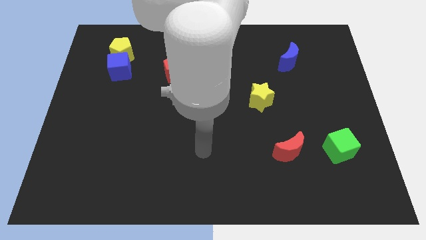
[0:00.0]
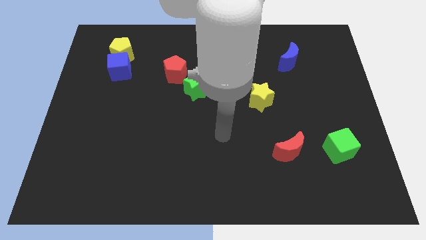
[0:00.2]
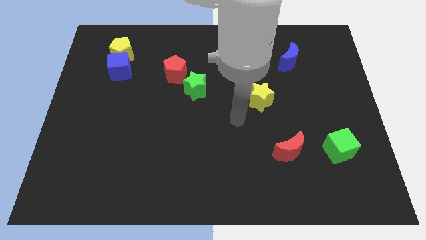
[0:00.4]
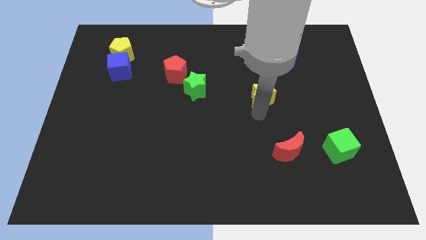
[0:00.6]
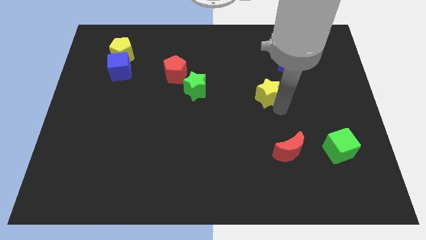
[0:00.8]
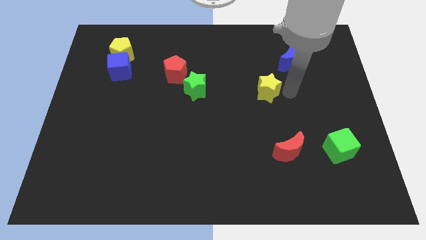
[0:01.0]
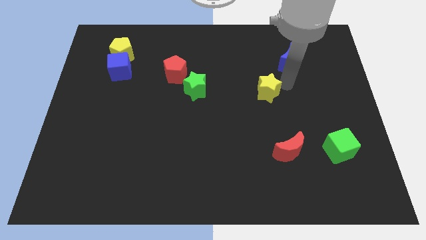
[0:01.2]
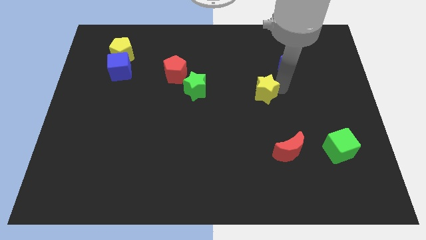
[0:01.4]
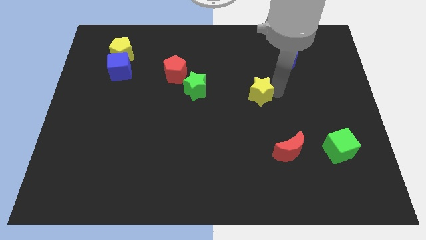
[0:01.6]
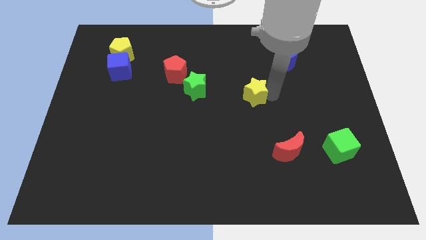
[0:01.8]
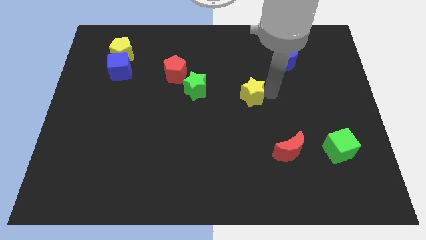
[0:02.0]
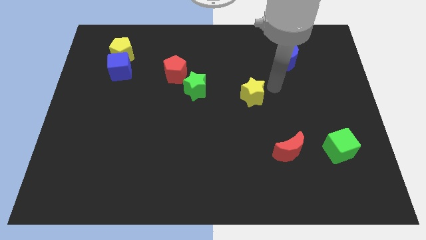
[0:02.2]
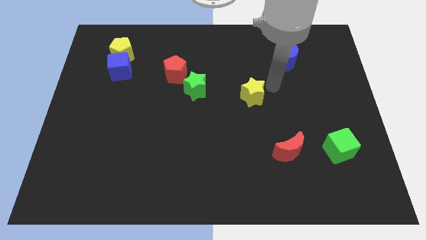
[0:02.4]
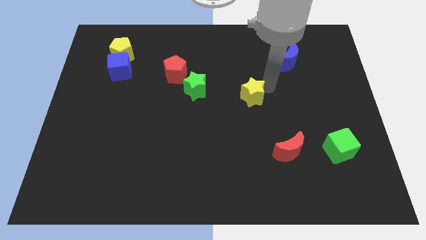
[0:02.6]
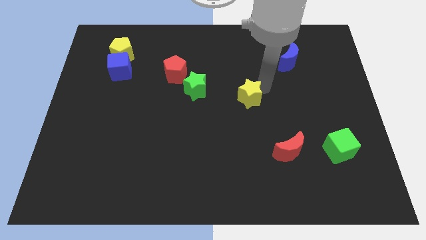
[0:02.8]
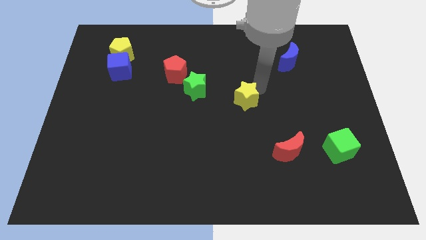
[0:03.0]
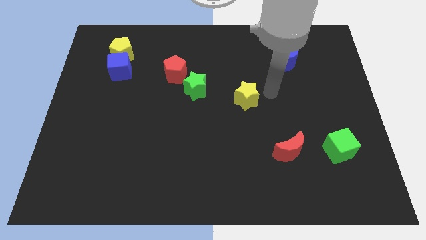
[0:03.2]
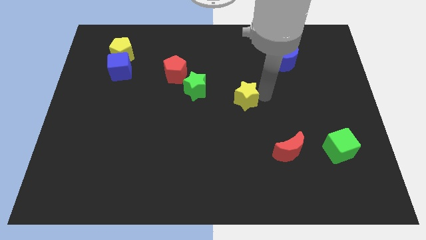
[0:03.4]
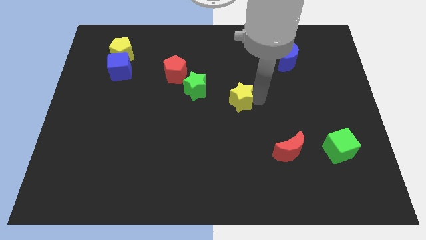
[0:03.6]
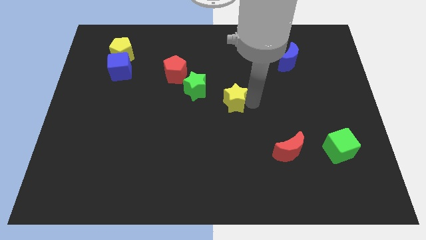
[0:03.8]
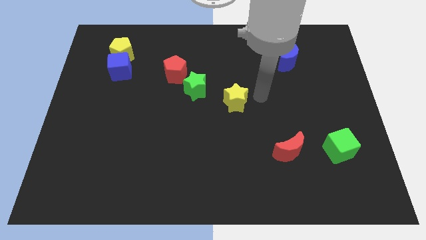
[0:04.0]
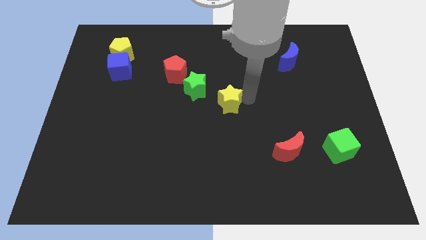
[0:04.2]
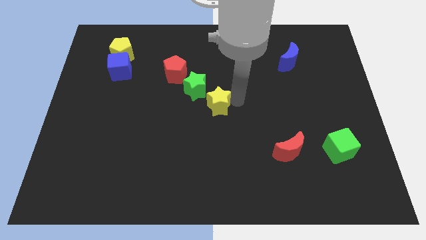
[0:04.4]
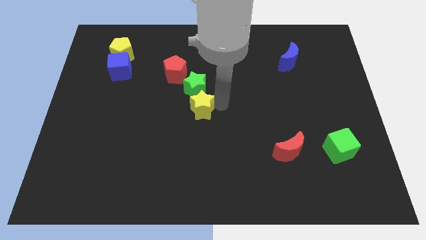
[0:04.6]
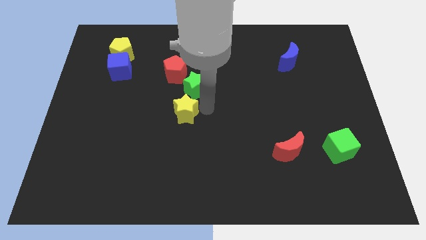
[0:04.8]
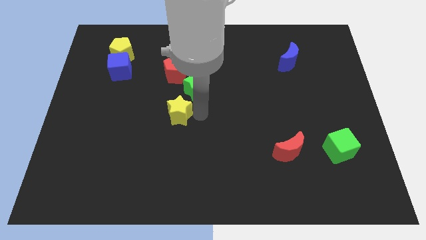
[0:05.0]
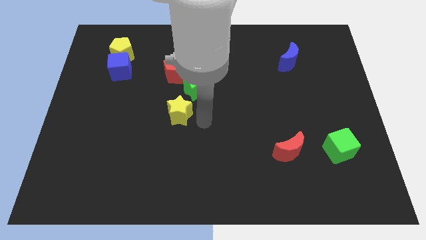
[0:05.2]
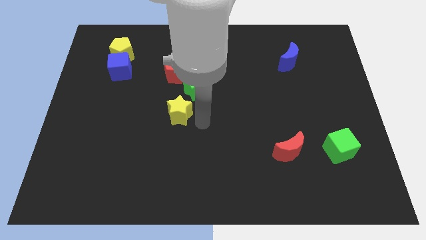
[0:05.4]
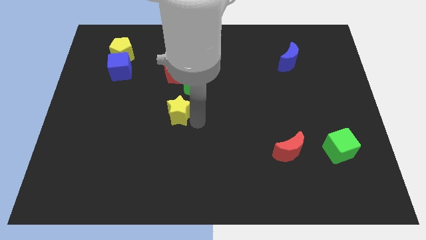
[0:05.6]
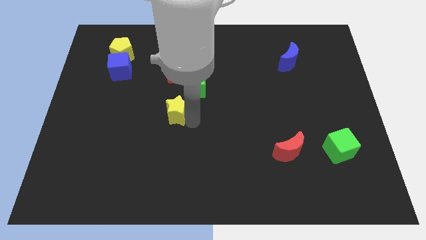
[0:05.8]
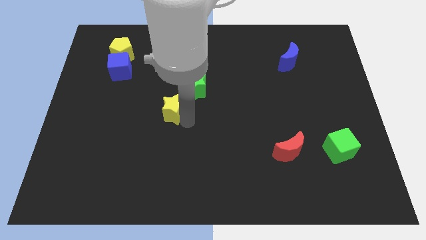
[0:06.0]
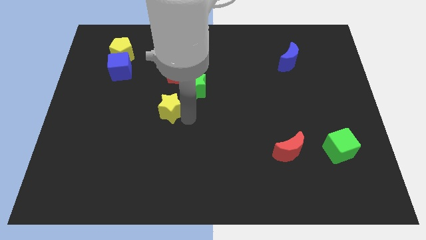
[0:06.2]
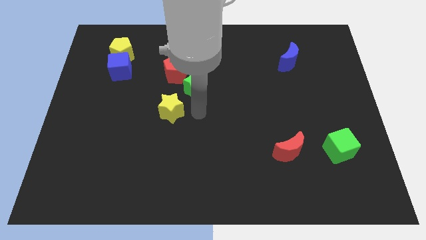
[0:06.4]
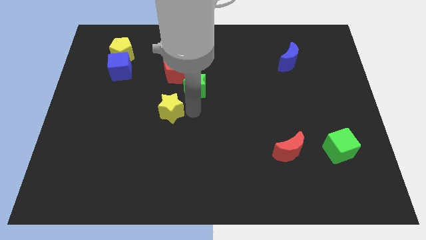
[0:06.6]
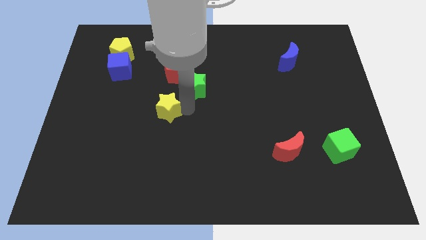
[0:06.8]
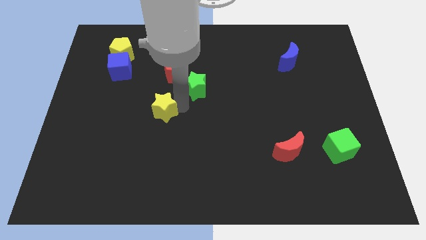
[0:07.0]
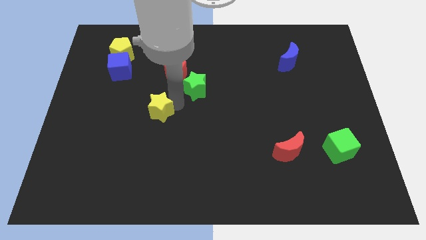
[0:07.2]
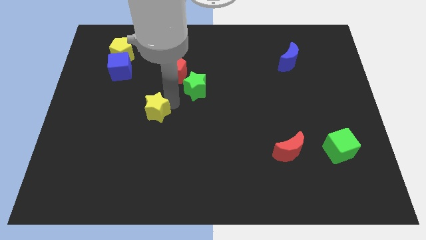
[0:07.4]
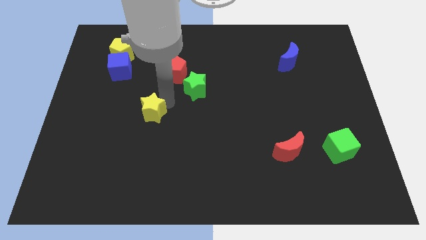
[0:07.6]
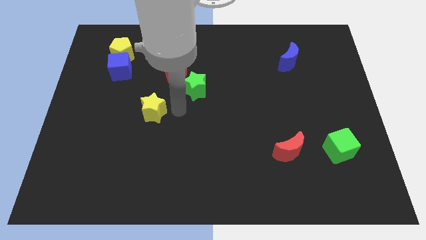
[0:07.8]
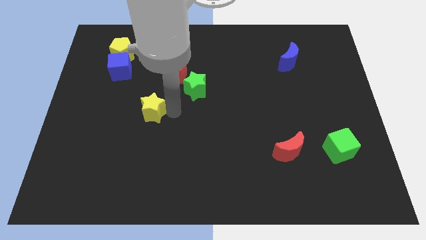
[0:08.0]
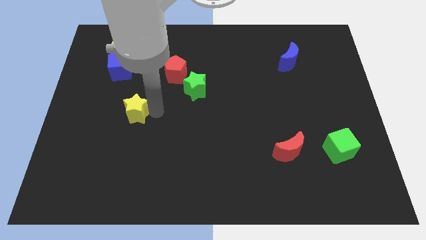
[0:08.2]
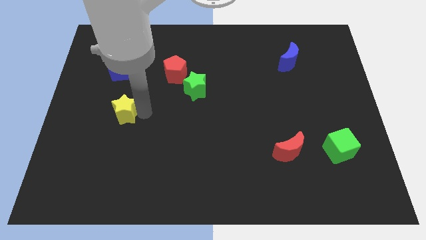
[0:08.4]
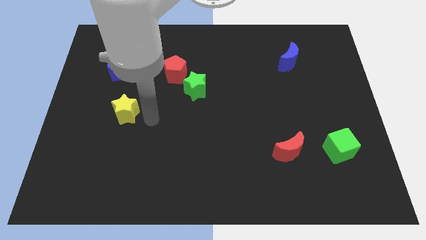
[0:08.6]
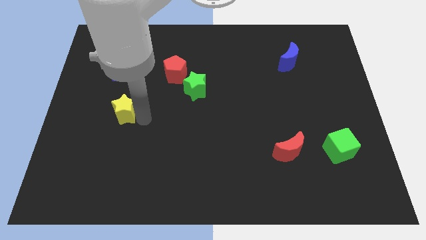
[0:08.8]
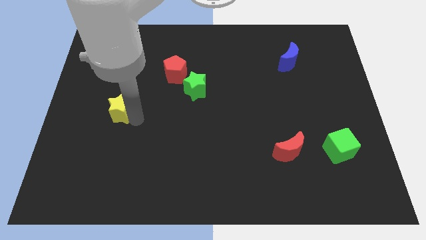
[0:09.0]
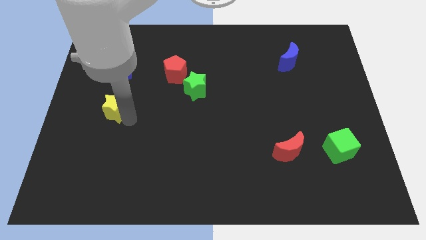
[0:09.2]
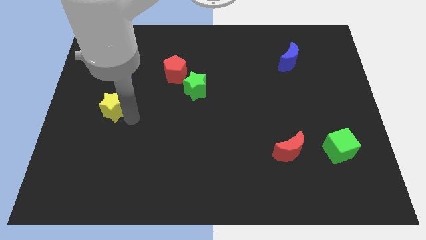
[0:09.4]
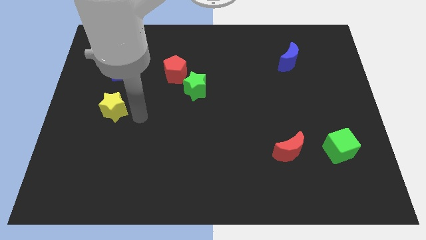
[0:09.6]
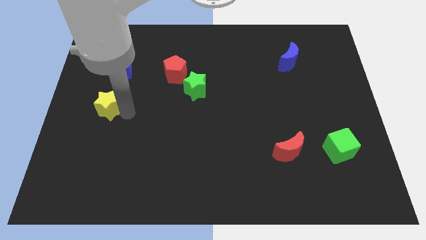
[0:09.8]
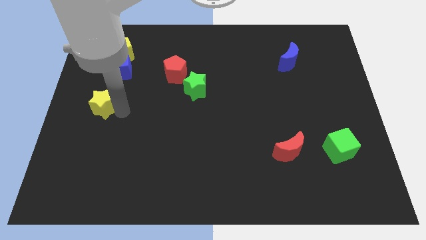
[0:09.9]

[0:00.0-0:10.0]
push the yellow star to the left side of the board

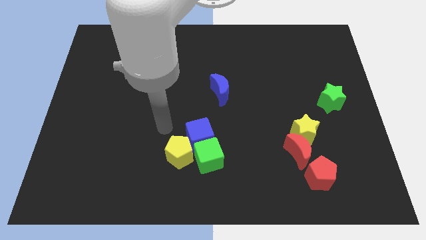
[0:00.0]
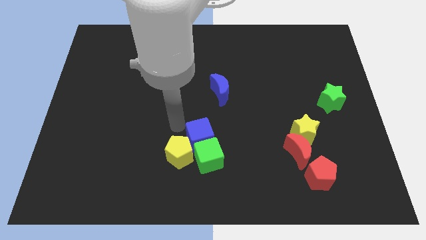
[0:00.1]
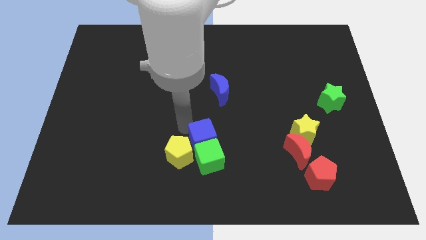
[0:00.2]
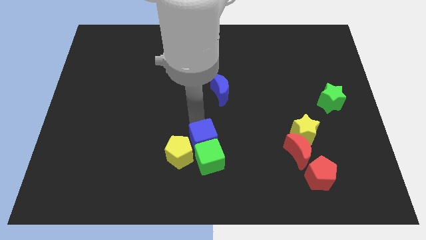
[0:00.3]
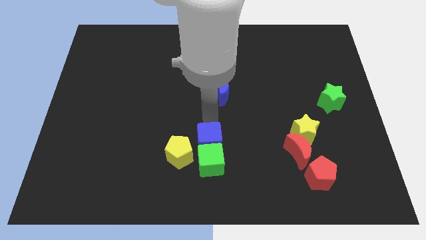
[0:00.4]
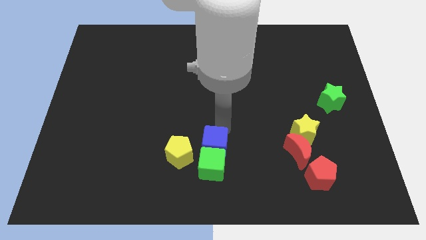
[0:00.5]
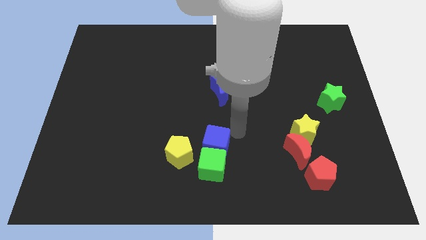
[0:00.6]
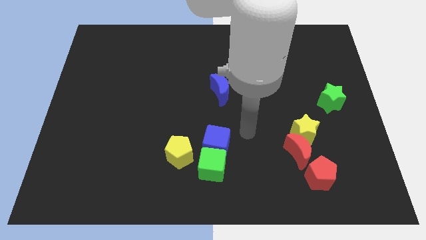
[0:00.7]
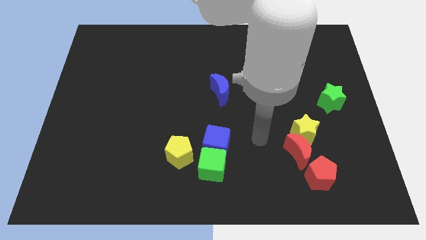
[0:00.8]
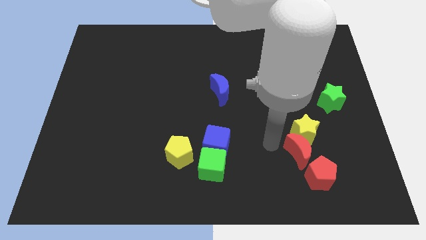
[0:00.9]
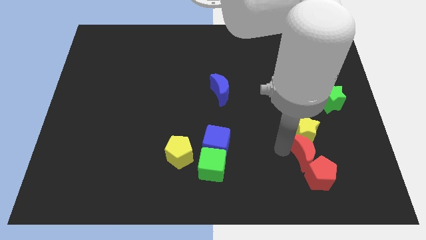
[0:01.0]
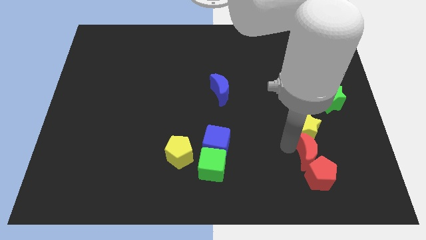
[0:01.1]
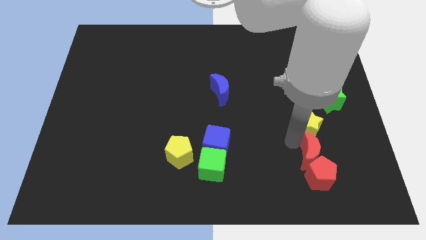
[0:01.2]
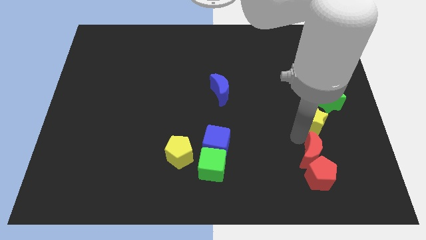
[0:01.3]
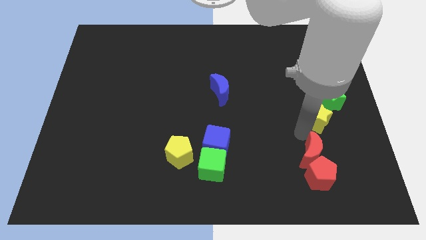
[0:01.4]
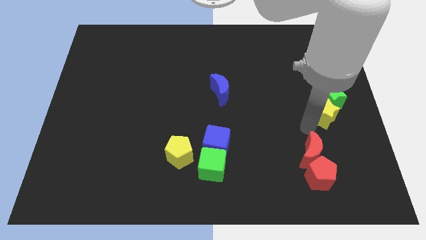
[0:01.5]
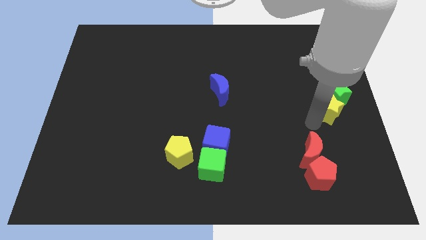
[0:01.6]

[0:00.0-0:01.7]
put the yellow star to the right side of the board
